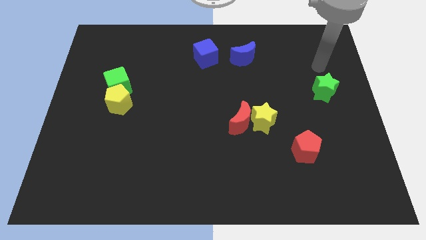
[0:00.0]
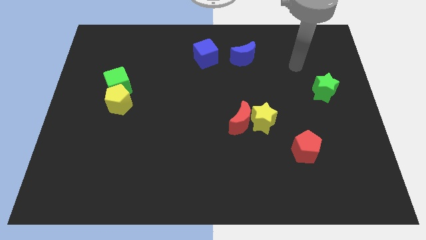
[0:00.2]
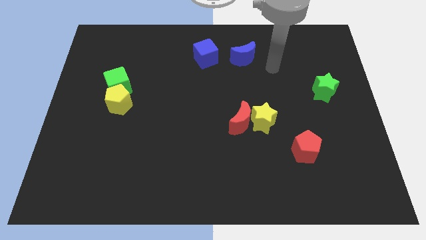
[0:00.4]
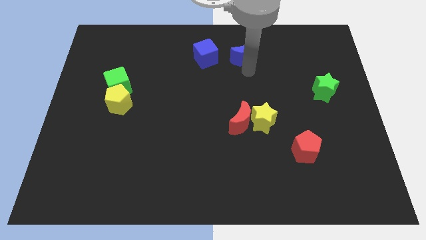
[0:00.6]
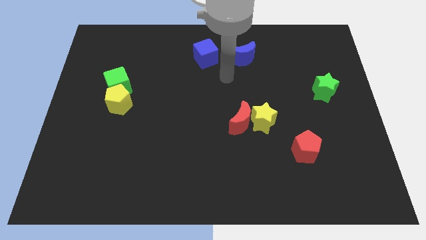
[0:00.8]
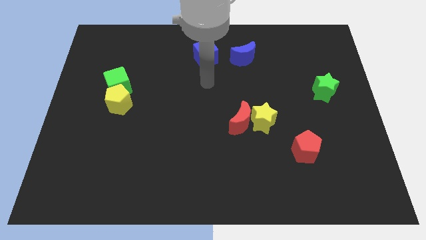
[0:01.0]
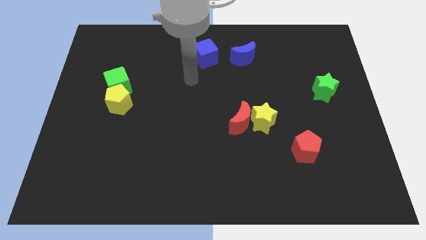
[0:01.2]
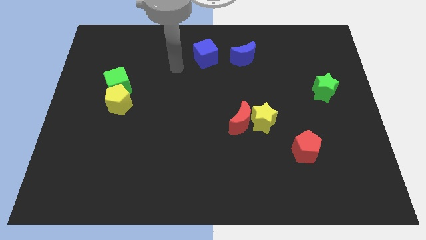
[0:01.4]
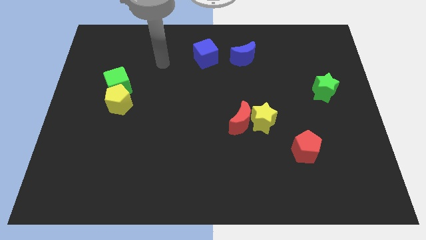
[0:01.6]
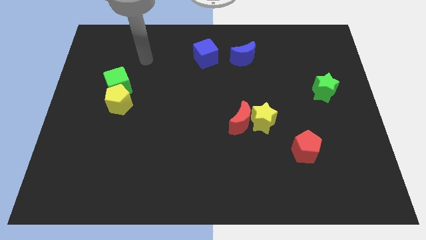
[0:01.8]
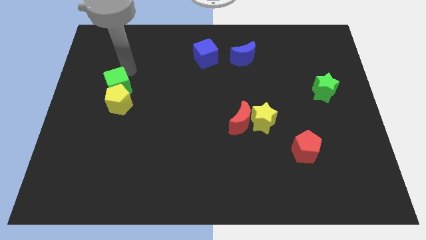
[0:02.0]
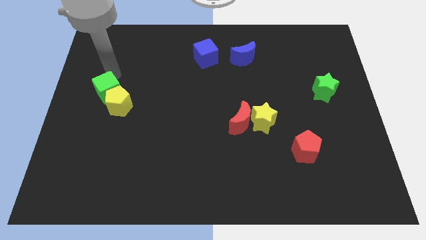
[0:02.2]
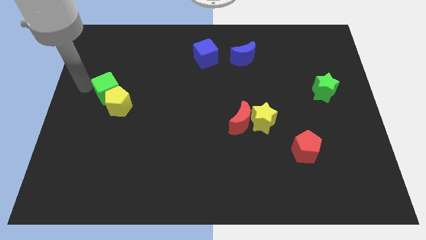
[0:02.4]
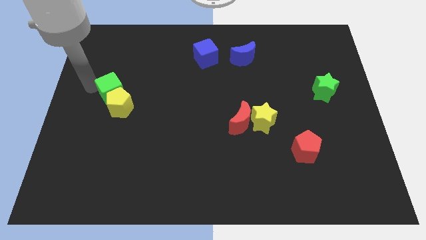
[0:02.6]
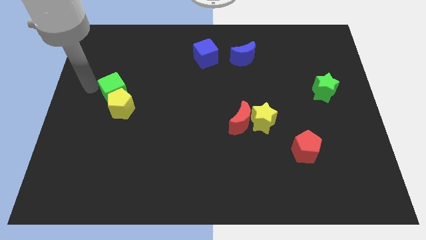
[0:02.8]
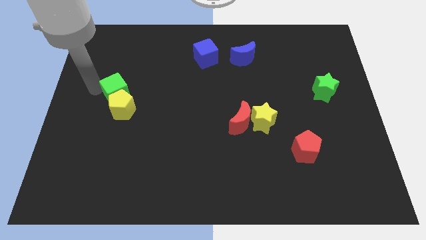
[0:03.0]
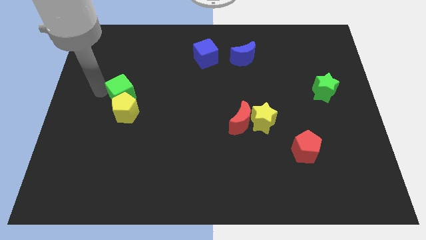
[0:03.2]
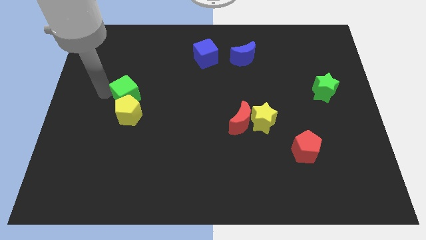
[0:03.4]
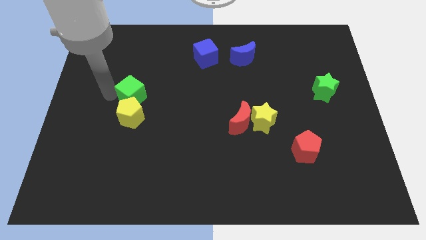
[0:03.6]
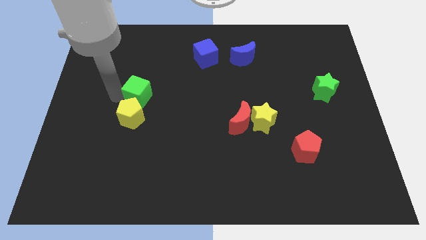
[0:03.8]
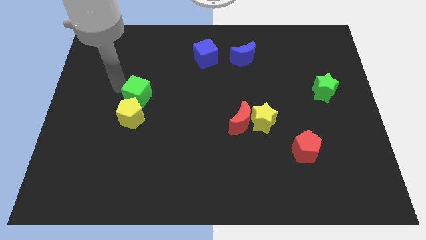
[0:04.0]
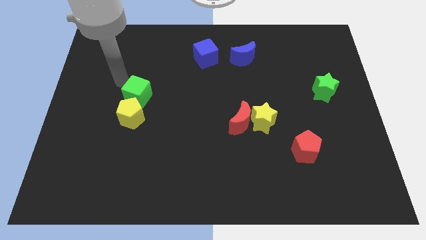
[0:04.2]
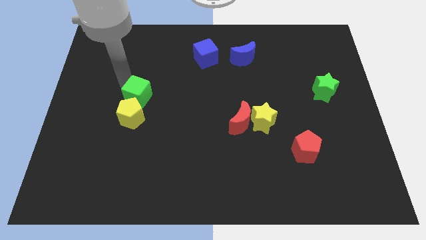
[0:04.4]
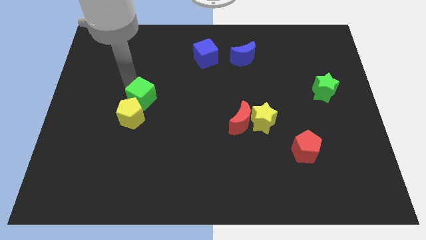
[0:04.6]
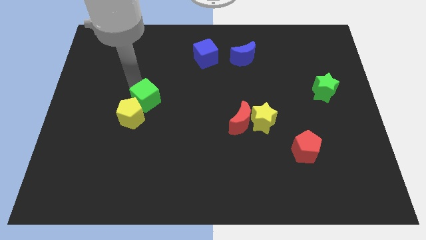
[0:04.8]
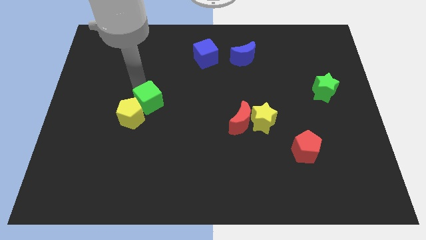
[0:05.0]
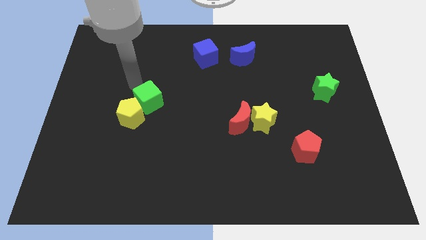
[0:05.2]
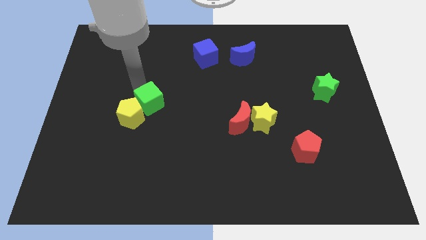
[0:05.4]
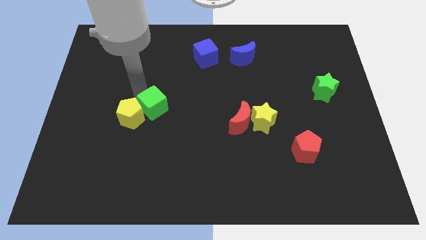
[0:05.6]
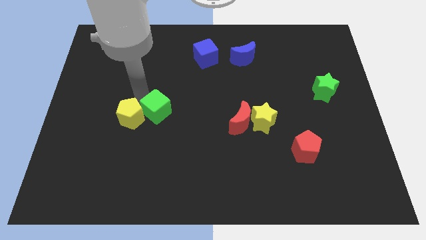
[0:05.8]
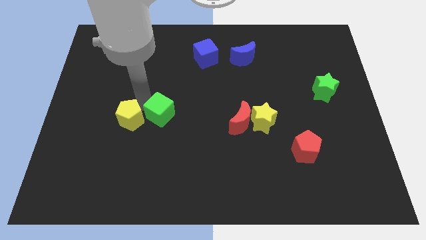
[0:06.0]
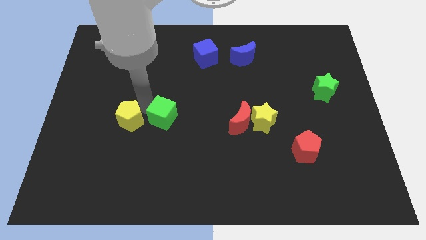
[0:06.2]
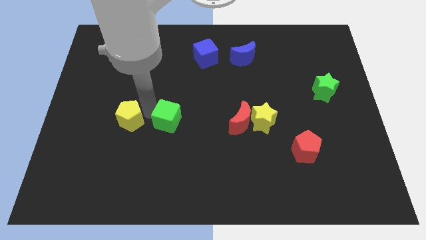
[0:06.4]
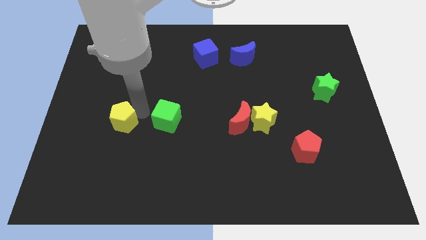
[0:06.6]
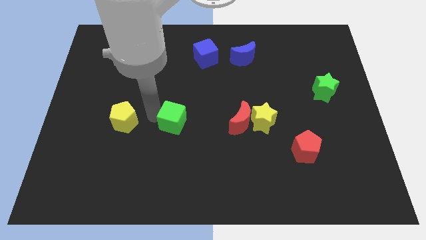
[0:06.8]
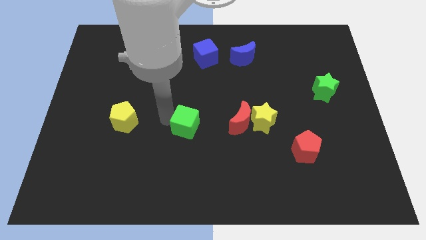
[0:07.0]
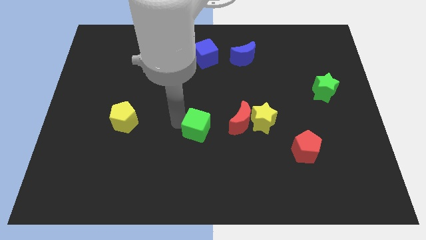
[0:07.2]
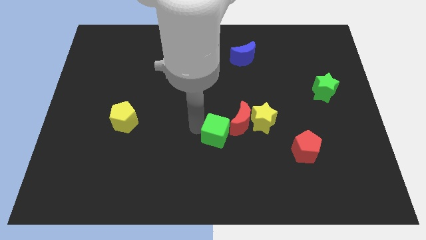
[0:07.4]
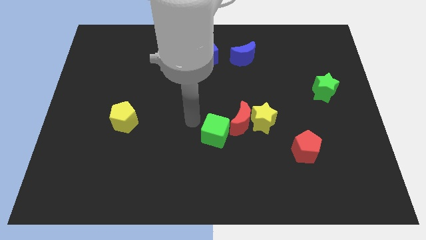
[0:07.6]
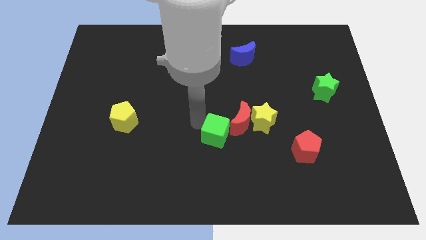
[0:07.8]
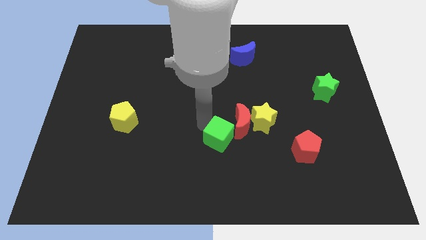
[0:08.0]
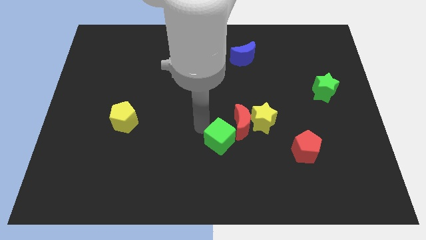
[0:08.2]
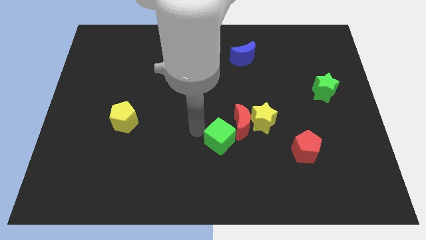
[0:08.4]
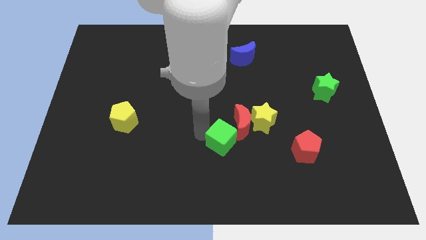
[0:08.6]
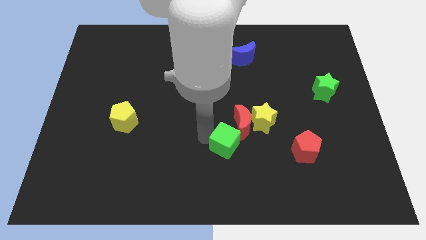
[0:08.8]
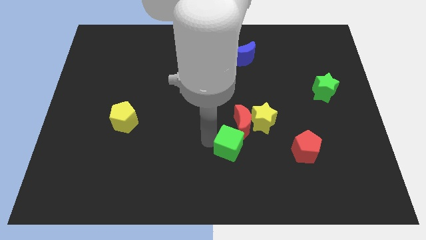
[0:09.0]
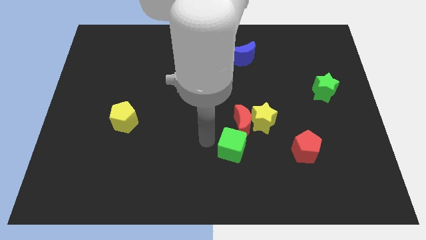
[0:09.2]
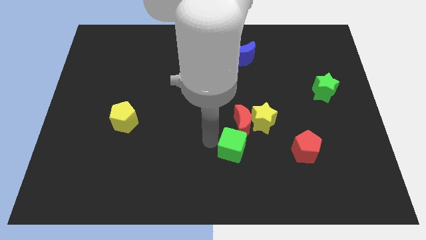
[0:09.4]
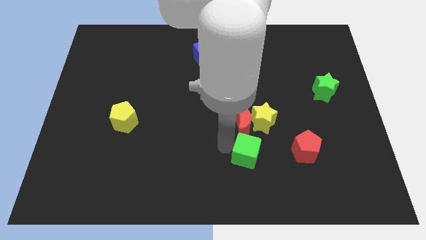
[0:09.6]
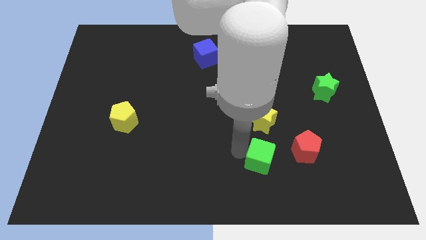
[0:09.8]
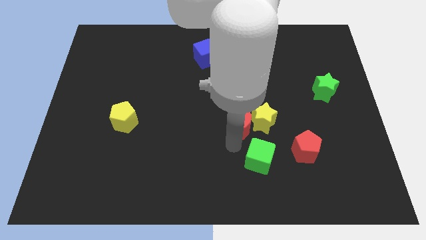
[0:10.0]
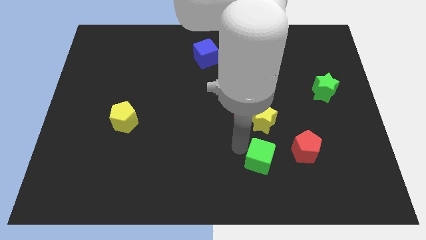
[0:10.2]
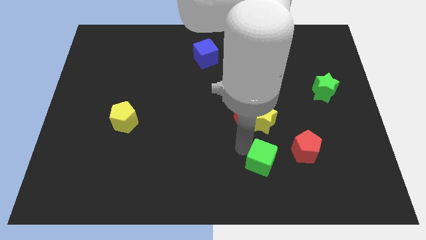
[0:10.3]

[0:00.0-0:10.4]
move the green cube to the bottom left side of the red pentagon

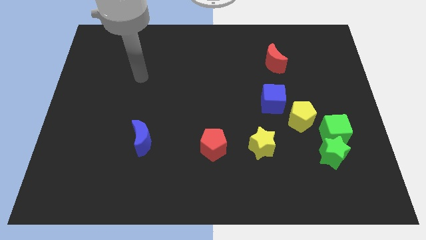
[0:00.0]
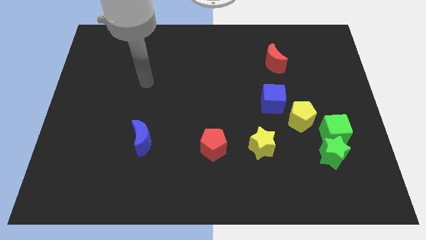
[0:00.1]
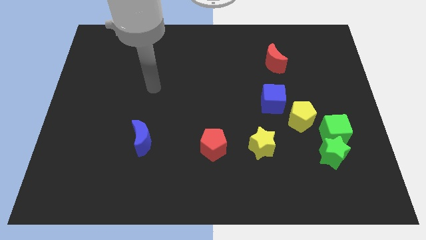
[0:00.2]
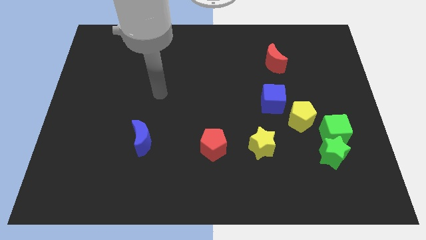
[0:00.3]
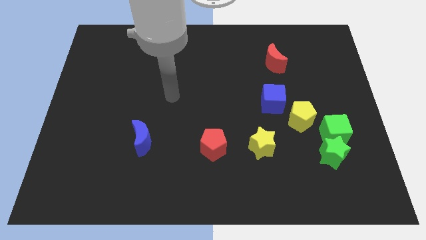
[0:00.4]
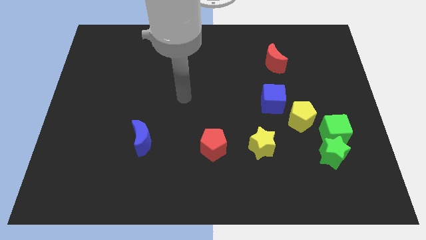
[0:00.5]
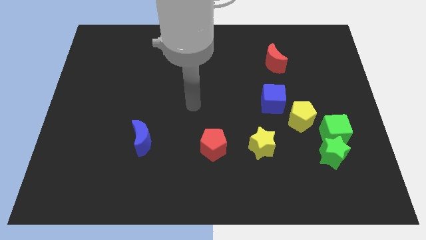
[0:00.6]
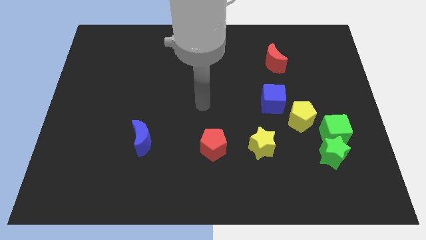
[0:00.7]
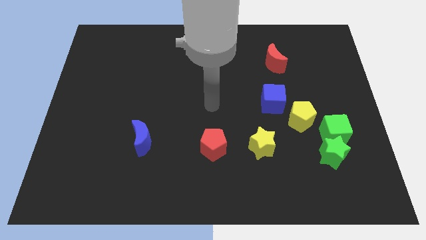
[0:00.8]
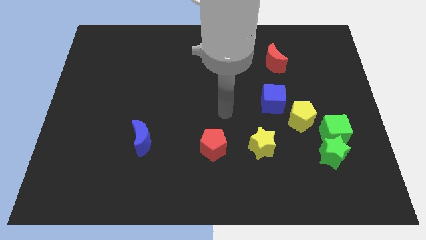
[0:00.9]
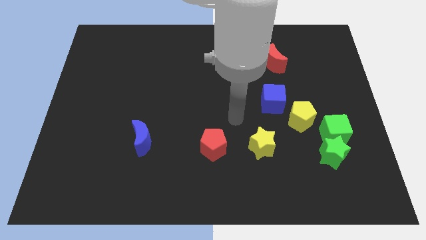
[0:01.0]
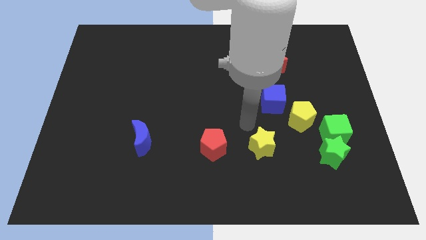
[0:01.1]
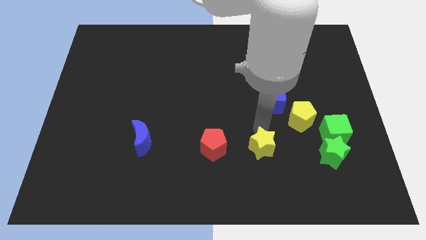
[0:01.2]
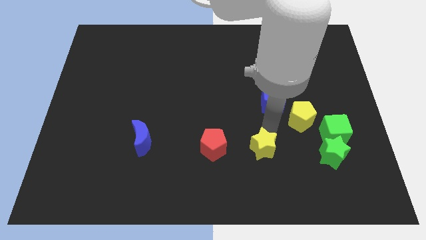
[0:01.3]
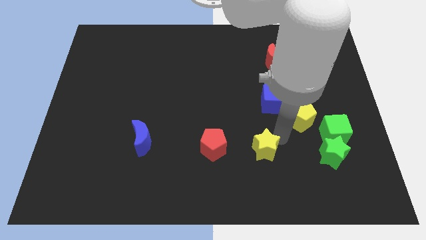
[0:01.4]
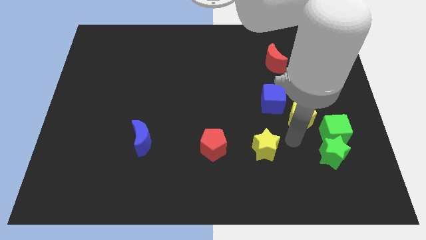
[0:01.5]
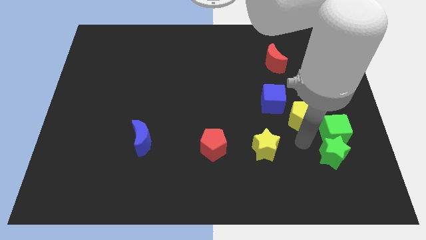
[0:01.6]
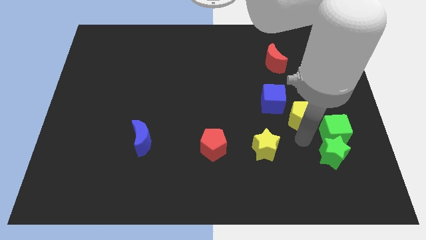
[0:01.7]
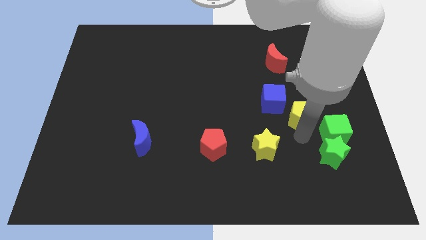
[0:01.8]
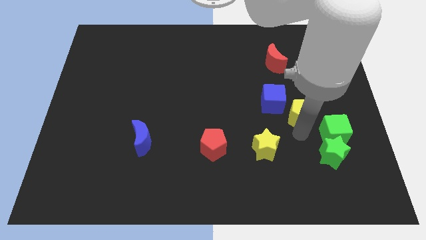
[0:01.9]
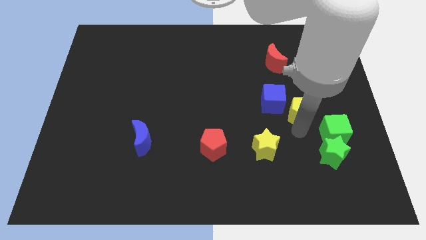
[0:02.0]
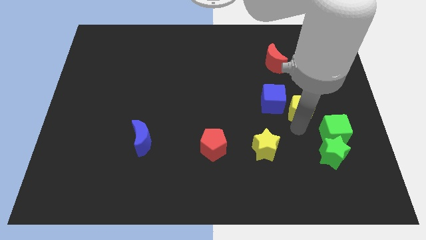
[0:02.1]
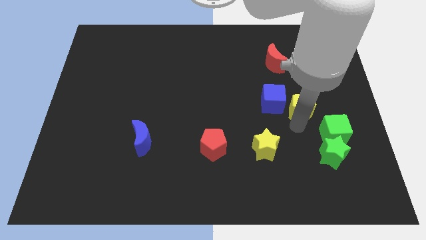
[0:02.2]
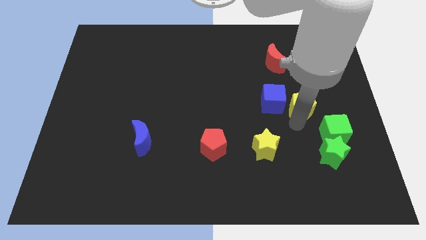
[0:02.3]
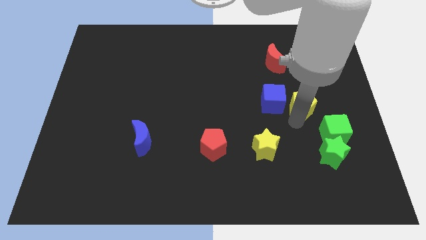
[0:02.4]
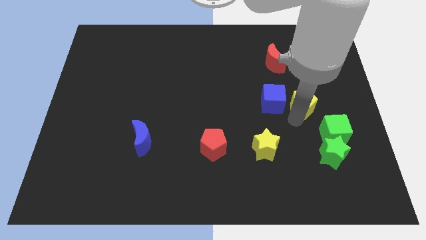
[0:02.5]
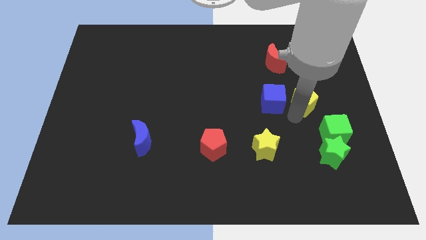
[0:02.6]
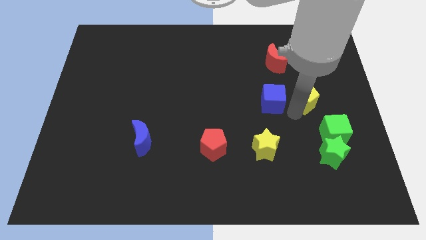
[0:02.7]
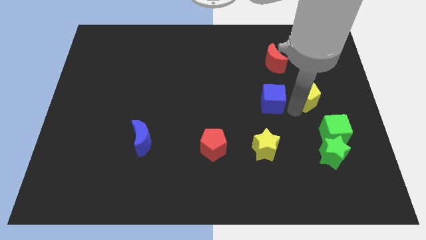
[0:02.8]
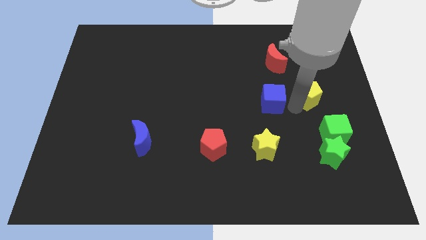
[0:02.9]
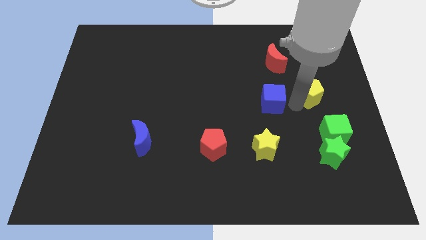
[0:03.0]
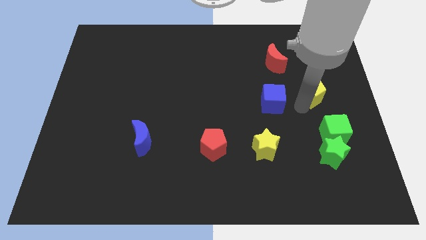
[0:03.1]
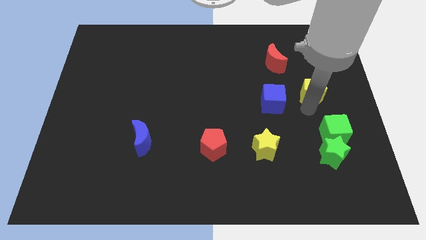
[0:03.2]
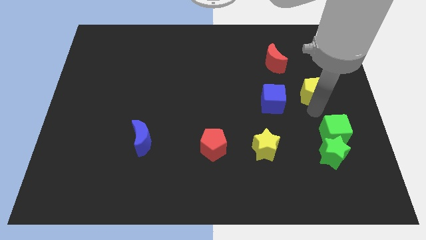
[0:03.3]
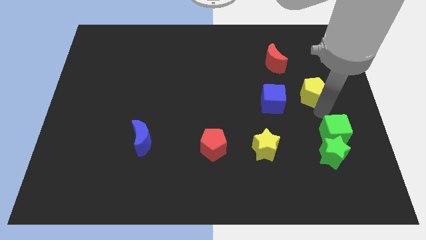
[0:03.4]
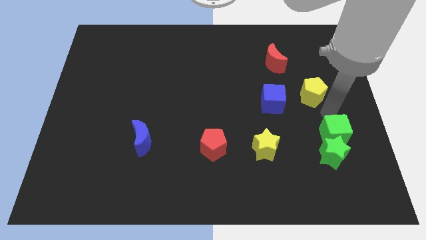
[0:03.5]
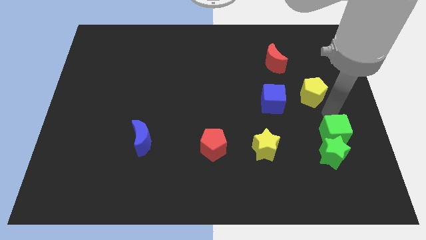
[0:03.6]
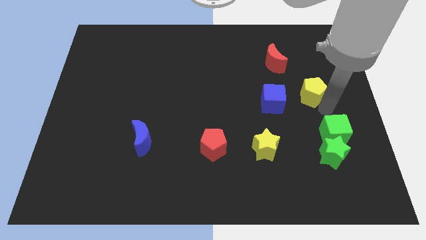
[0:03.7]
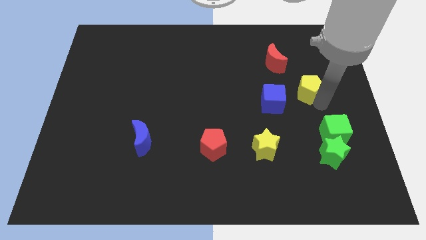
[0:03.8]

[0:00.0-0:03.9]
slide the yellow pentagon to the bottom right of the red moon
